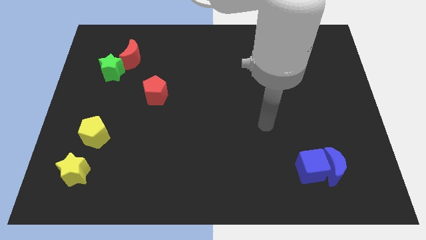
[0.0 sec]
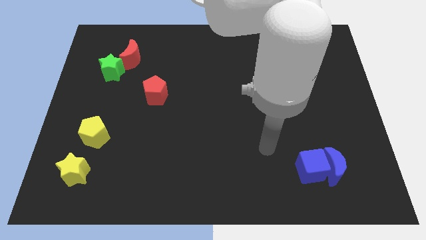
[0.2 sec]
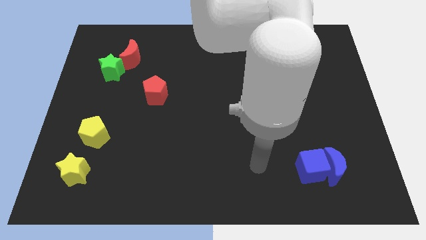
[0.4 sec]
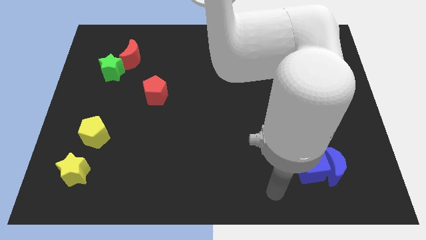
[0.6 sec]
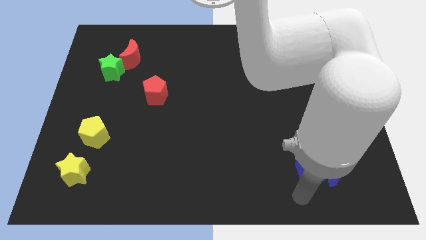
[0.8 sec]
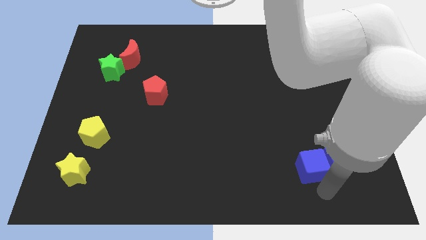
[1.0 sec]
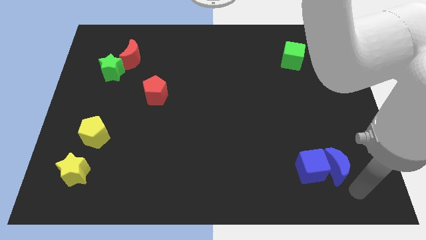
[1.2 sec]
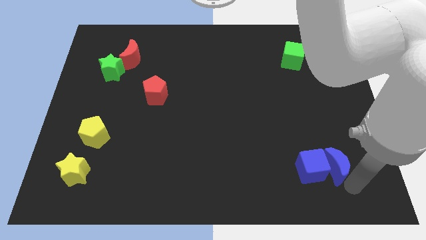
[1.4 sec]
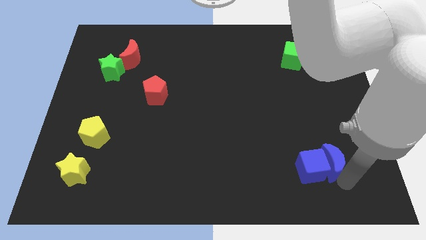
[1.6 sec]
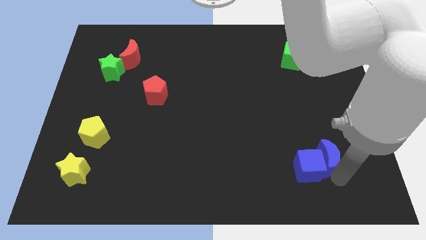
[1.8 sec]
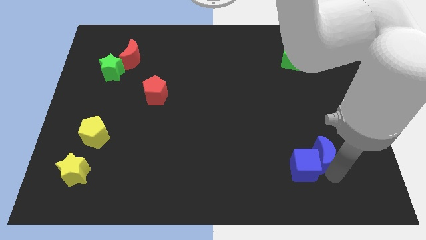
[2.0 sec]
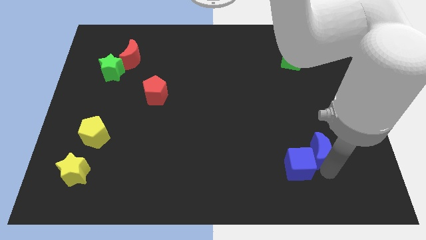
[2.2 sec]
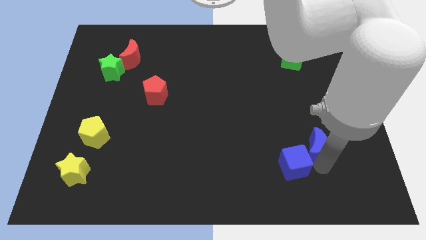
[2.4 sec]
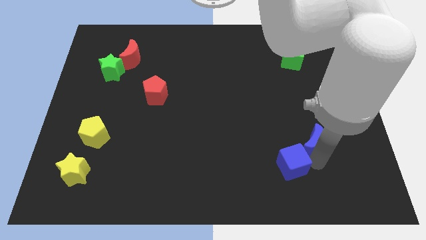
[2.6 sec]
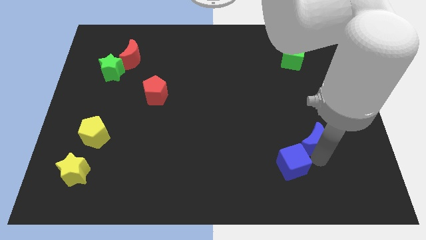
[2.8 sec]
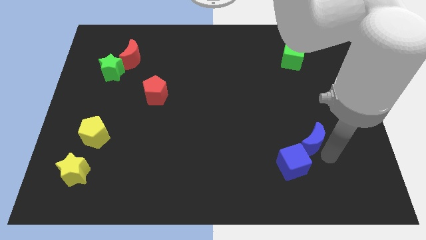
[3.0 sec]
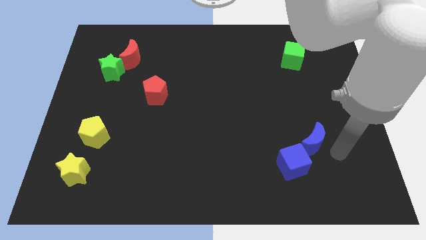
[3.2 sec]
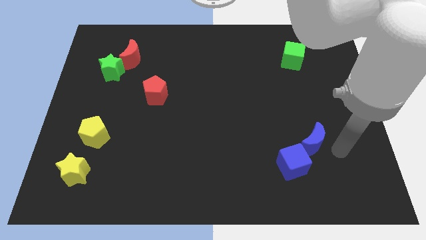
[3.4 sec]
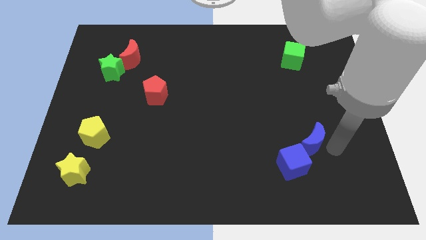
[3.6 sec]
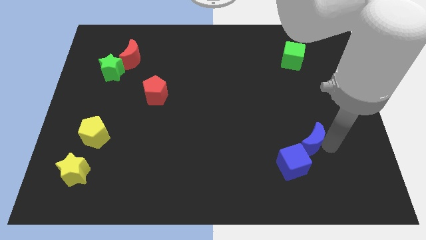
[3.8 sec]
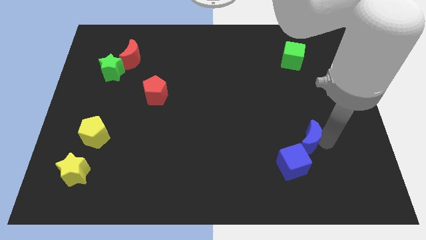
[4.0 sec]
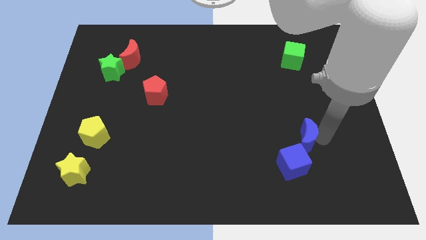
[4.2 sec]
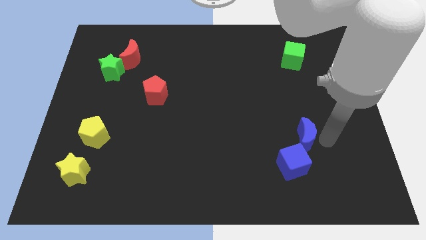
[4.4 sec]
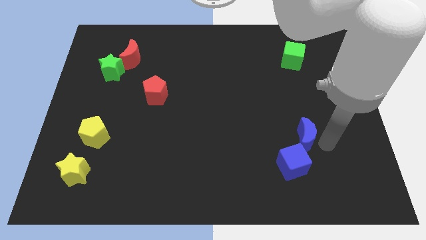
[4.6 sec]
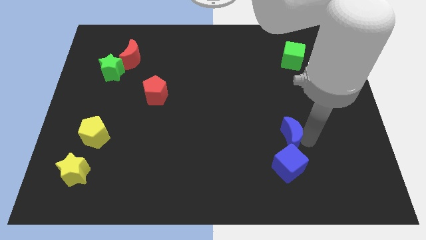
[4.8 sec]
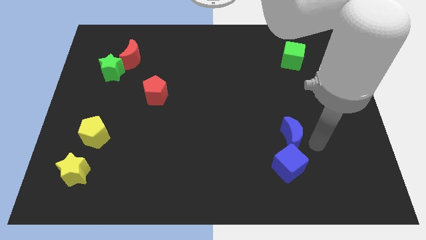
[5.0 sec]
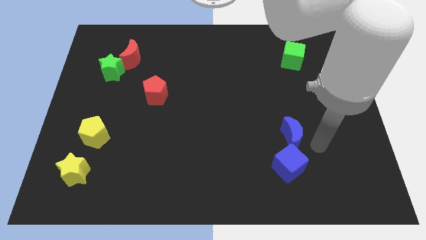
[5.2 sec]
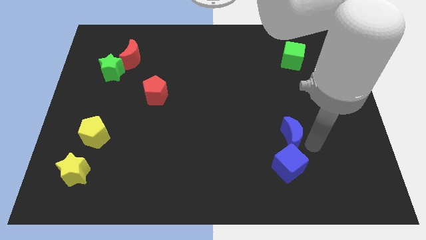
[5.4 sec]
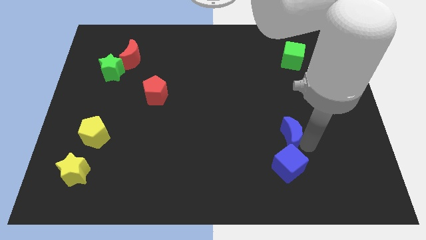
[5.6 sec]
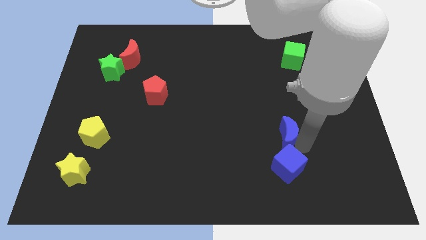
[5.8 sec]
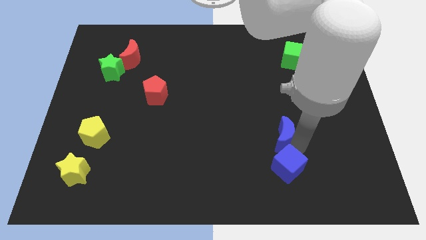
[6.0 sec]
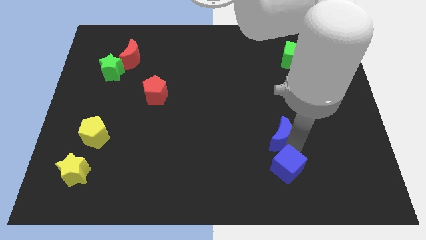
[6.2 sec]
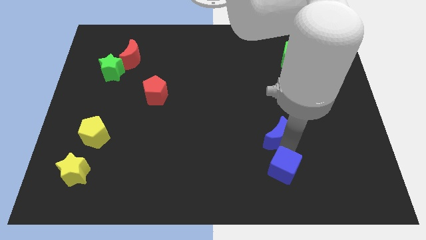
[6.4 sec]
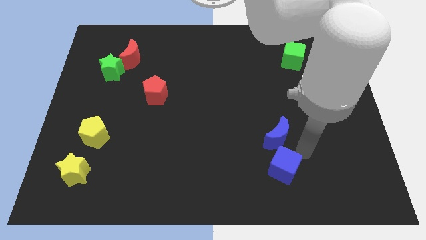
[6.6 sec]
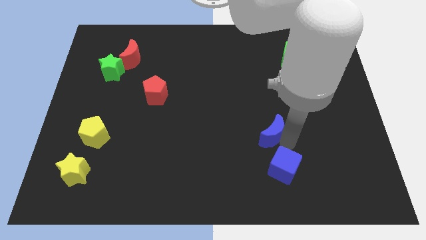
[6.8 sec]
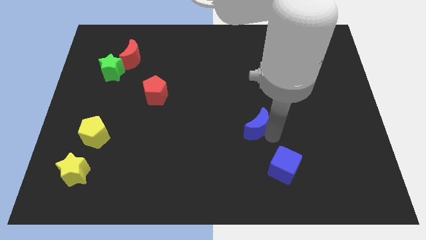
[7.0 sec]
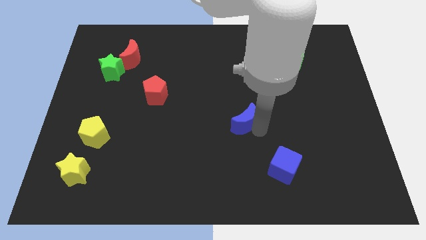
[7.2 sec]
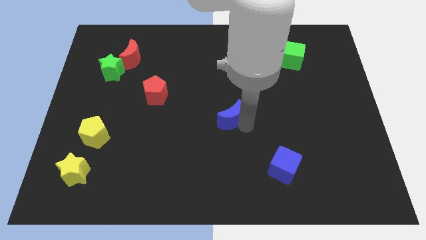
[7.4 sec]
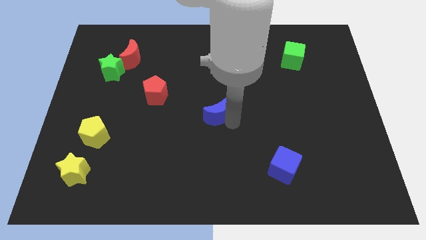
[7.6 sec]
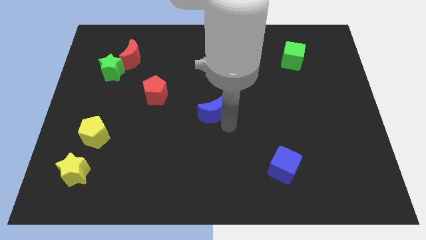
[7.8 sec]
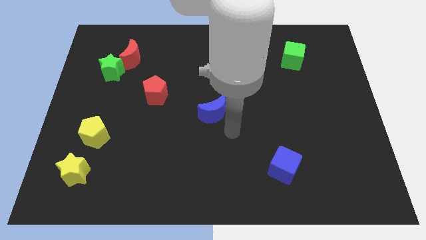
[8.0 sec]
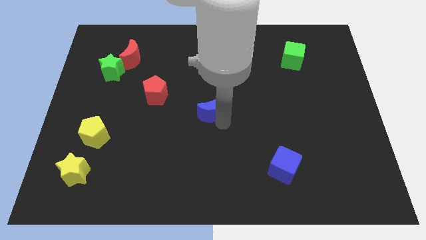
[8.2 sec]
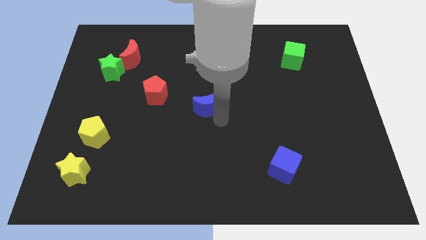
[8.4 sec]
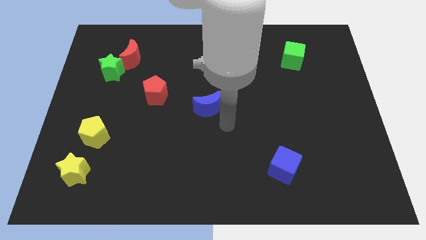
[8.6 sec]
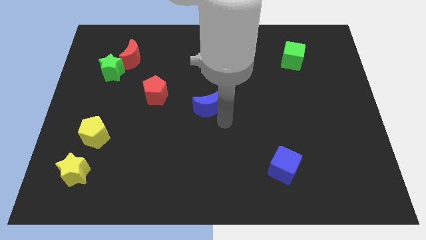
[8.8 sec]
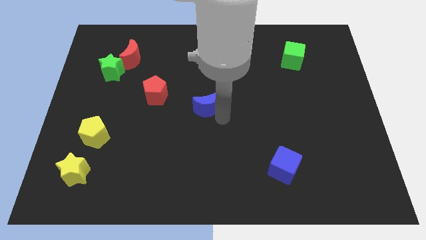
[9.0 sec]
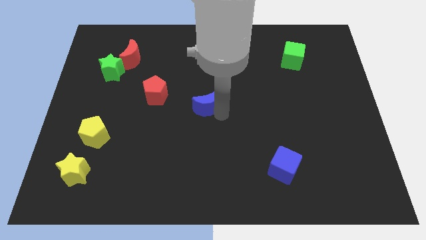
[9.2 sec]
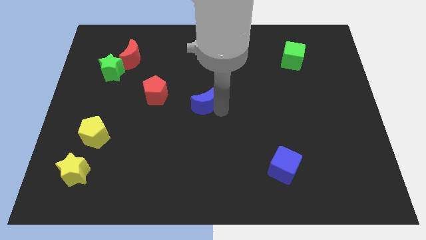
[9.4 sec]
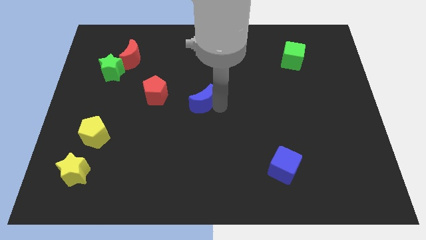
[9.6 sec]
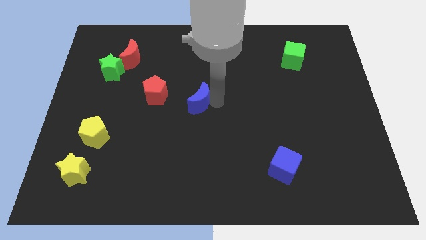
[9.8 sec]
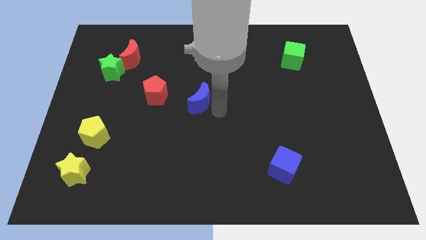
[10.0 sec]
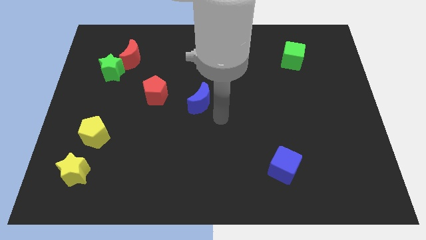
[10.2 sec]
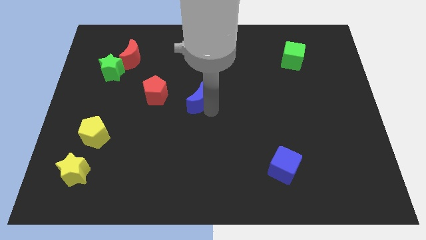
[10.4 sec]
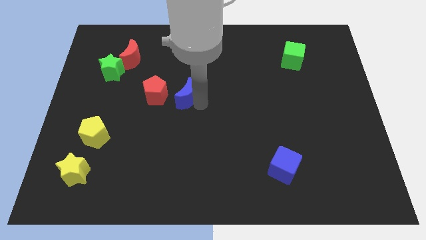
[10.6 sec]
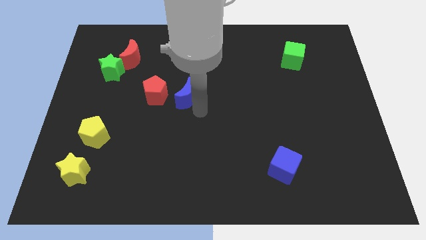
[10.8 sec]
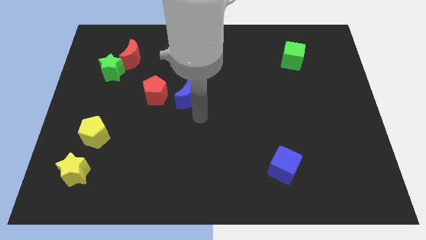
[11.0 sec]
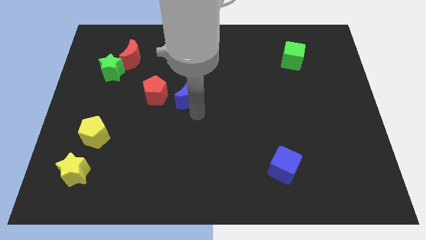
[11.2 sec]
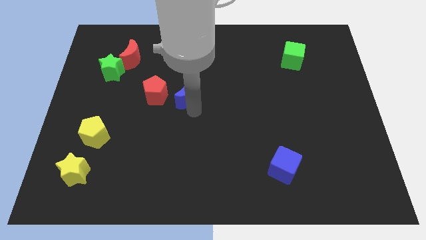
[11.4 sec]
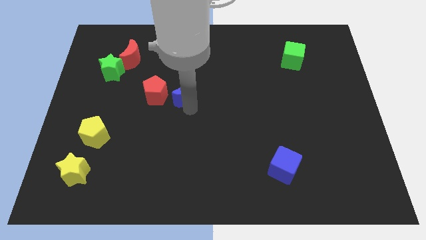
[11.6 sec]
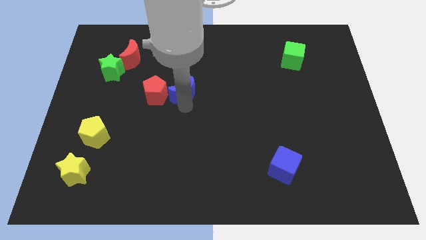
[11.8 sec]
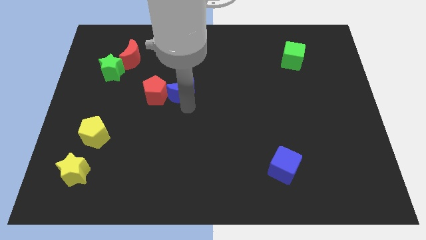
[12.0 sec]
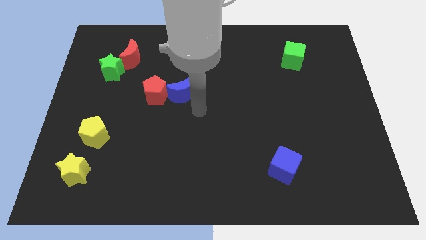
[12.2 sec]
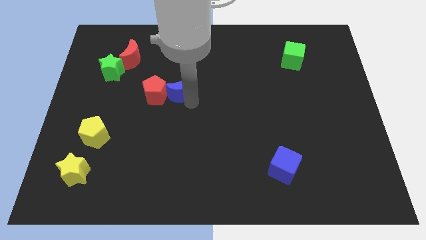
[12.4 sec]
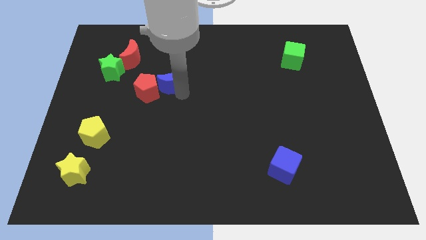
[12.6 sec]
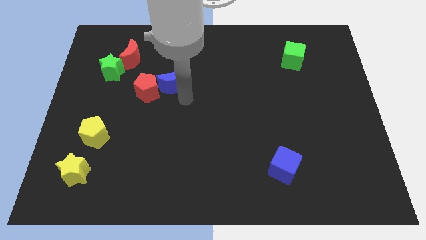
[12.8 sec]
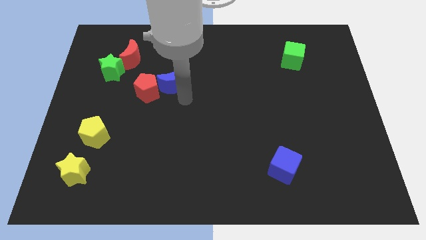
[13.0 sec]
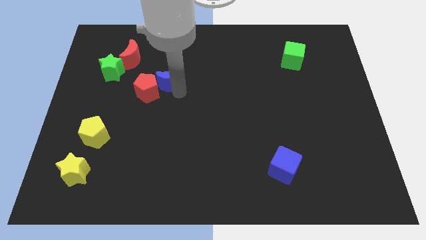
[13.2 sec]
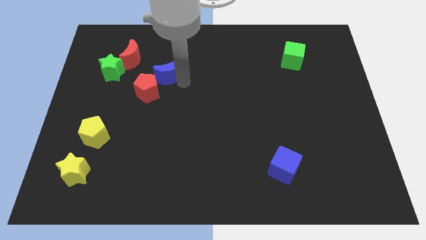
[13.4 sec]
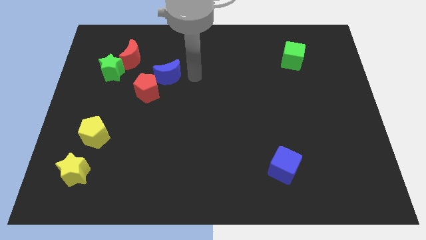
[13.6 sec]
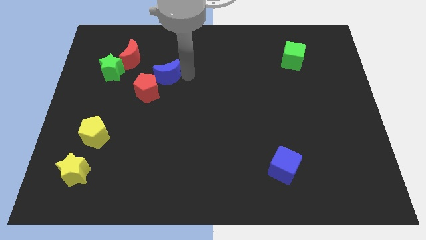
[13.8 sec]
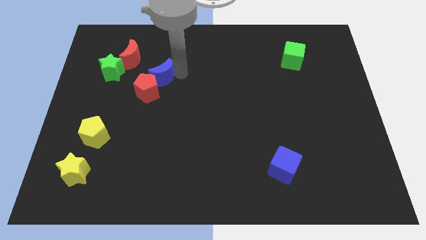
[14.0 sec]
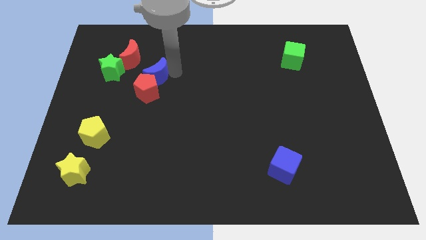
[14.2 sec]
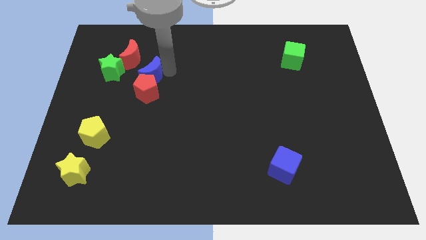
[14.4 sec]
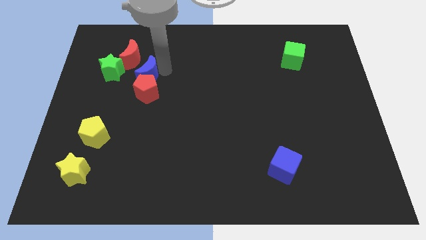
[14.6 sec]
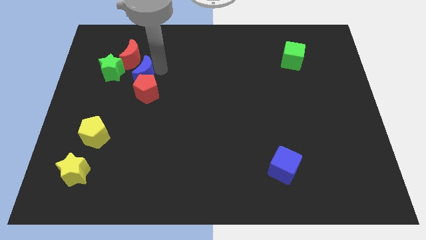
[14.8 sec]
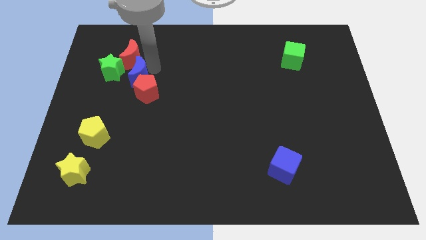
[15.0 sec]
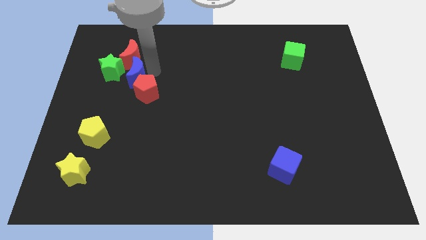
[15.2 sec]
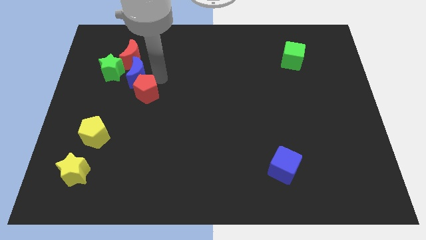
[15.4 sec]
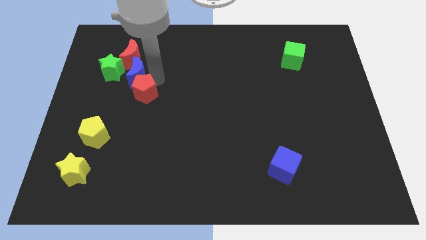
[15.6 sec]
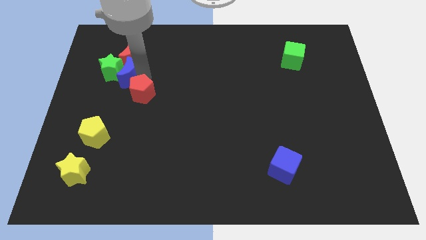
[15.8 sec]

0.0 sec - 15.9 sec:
put the blue moon to the green star
